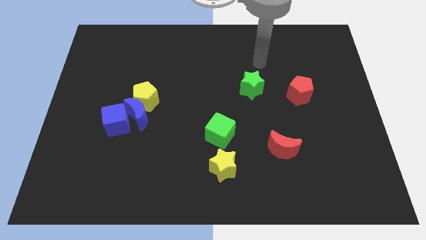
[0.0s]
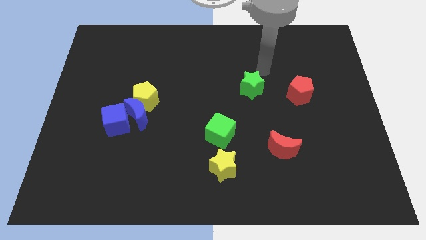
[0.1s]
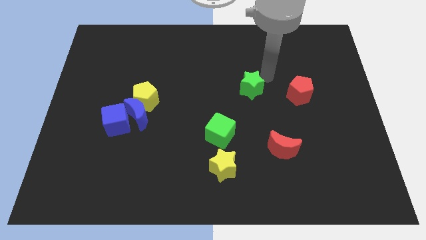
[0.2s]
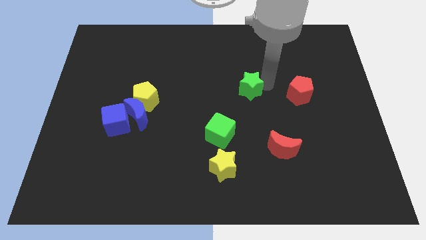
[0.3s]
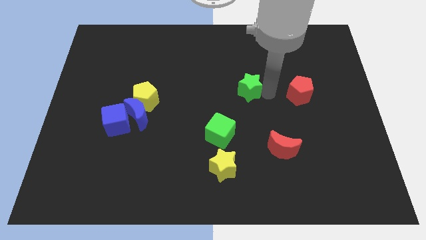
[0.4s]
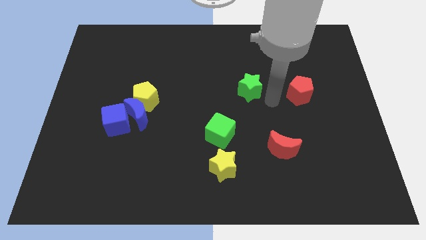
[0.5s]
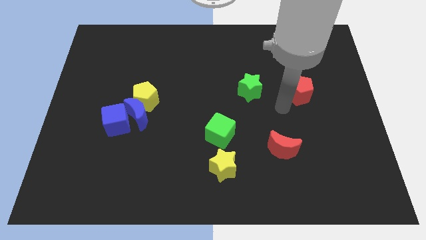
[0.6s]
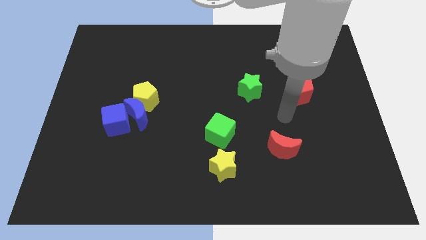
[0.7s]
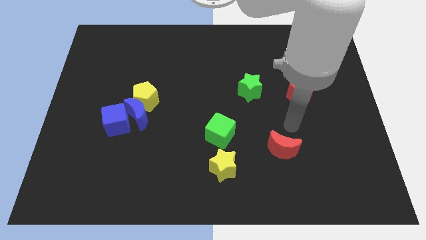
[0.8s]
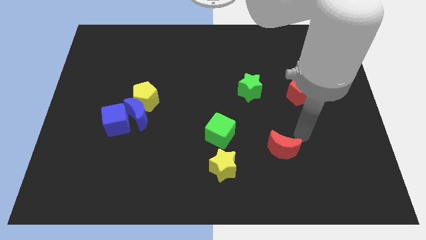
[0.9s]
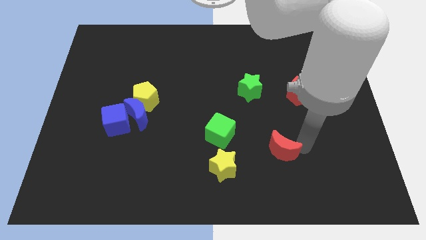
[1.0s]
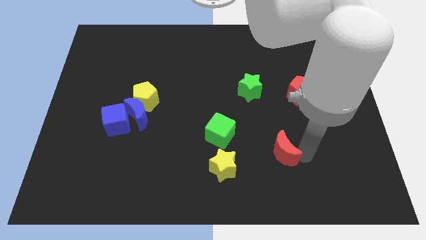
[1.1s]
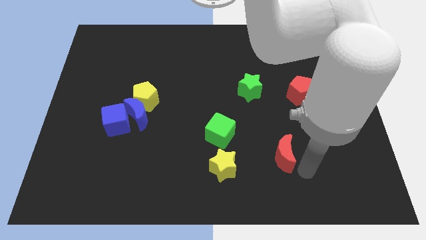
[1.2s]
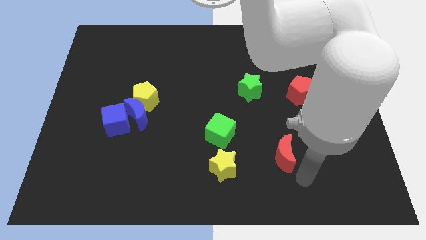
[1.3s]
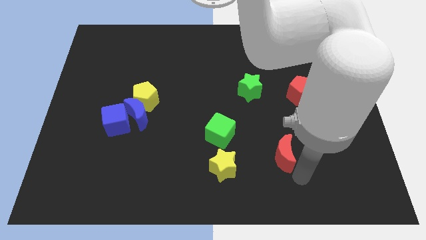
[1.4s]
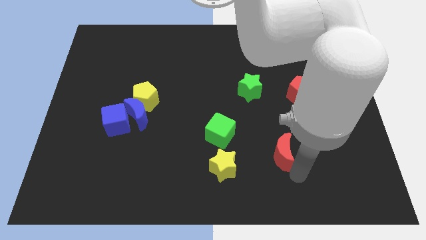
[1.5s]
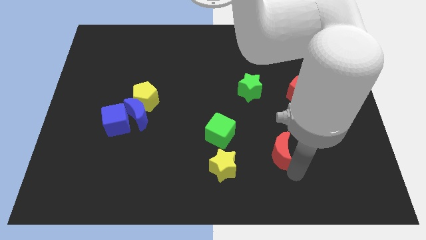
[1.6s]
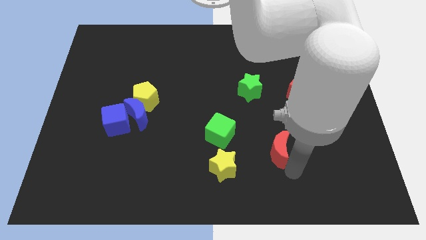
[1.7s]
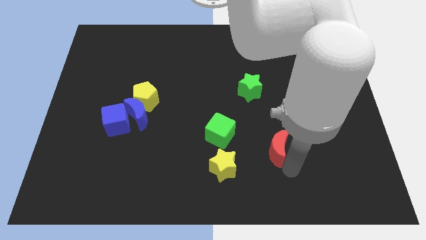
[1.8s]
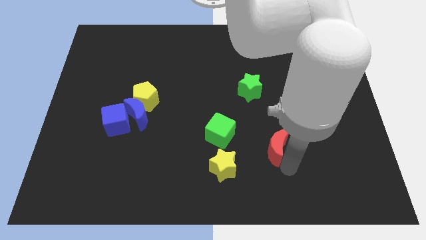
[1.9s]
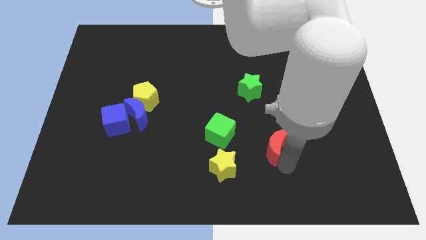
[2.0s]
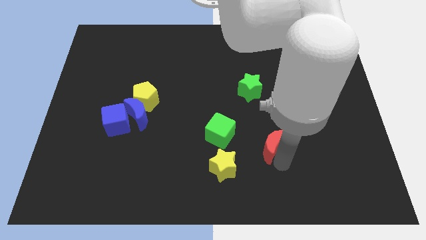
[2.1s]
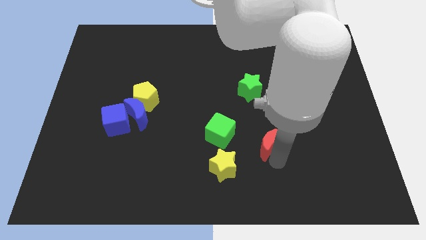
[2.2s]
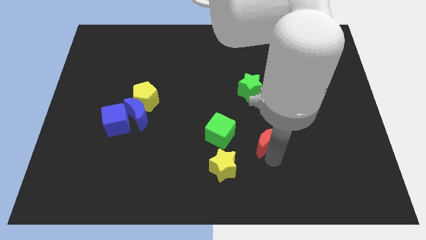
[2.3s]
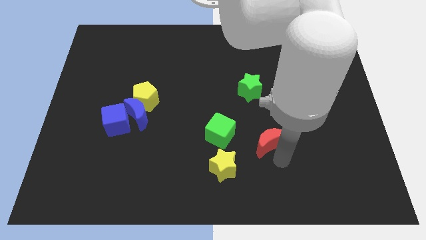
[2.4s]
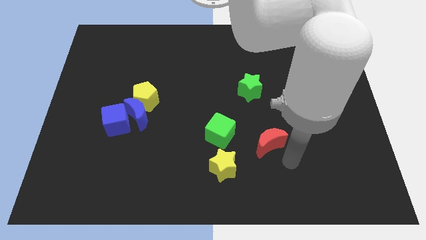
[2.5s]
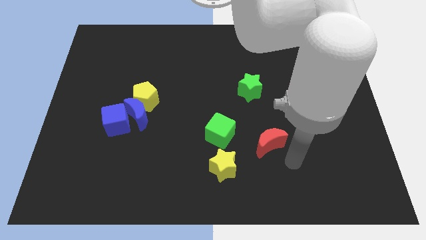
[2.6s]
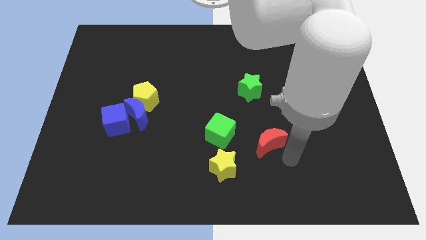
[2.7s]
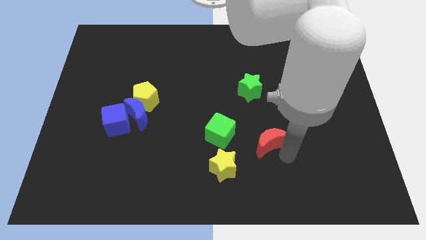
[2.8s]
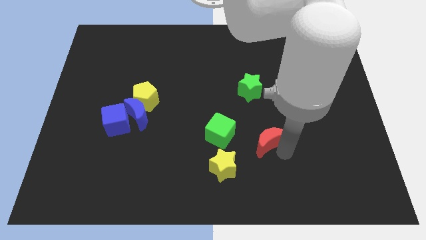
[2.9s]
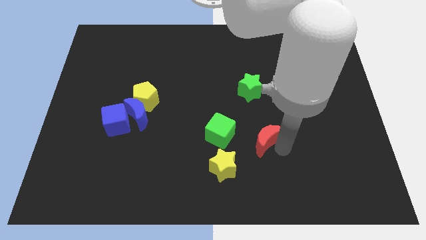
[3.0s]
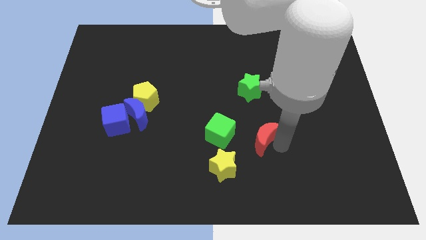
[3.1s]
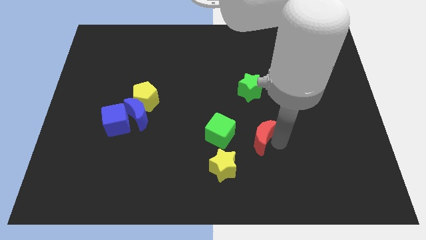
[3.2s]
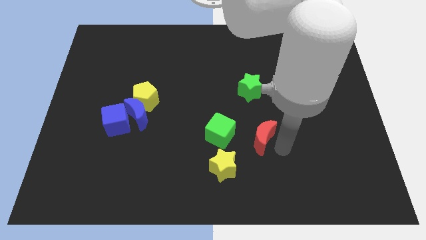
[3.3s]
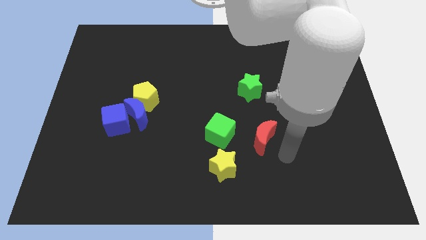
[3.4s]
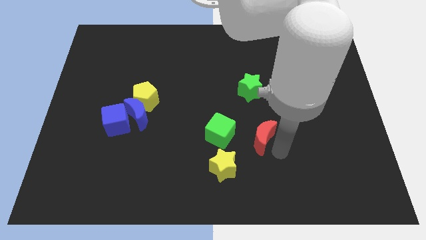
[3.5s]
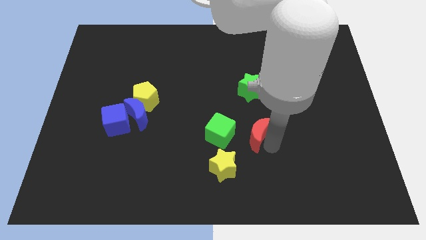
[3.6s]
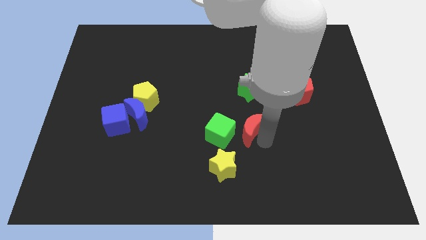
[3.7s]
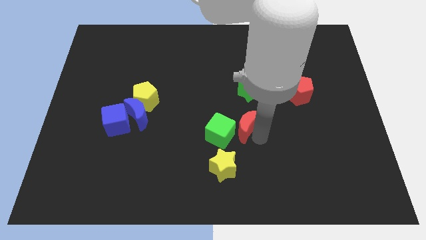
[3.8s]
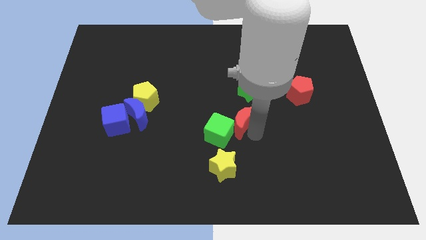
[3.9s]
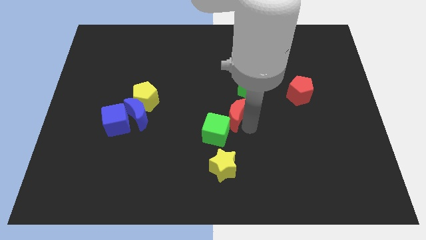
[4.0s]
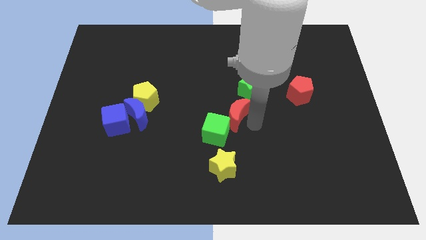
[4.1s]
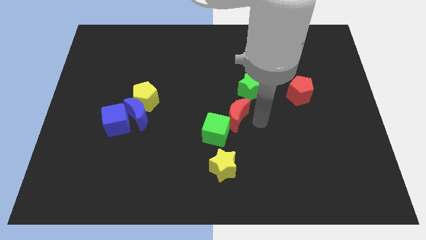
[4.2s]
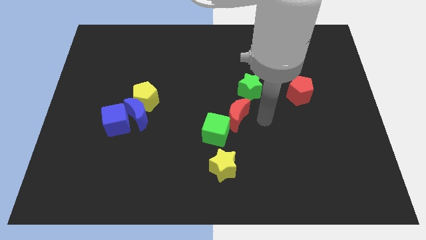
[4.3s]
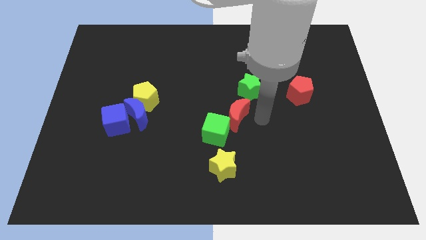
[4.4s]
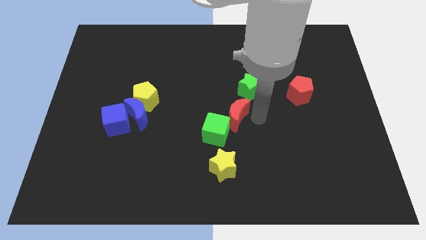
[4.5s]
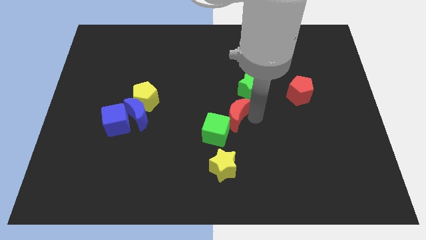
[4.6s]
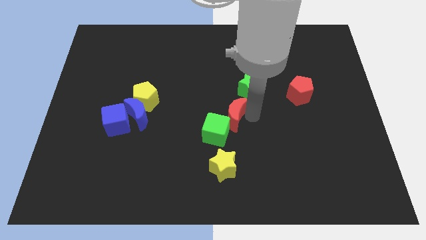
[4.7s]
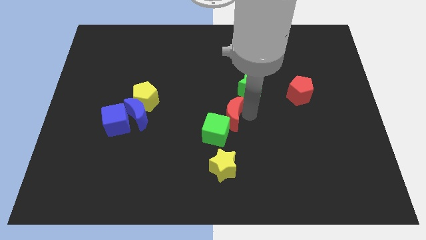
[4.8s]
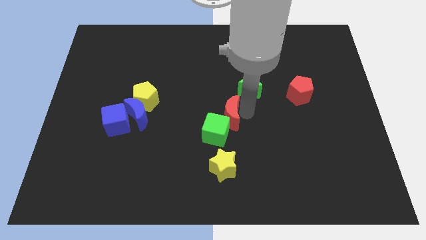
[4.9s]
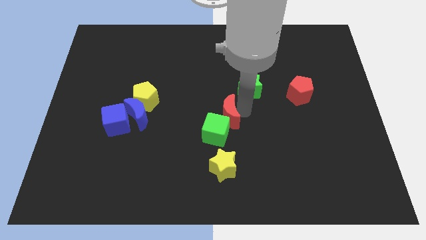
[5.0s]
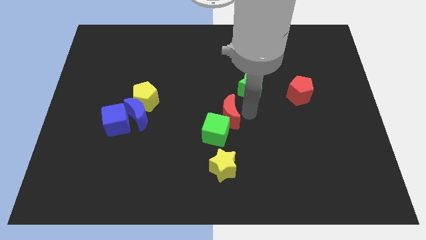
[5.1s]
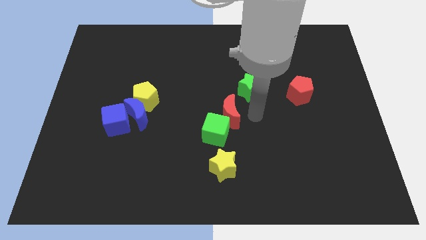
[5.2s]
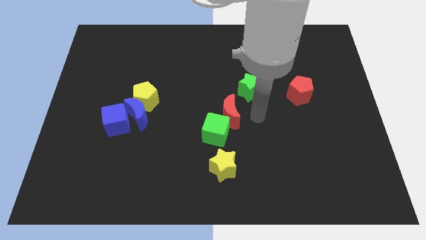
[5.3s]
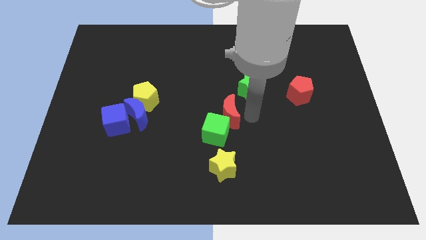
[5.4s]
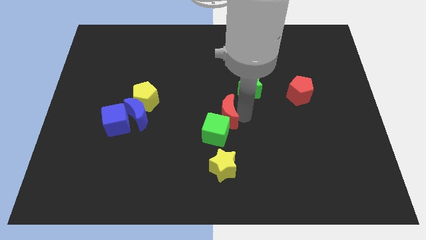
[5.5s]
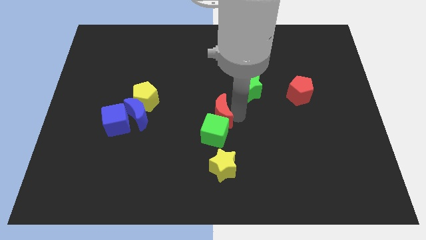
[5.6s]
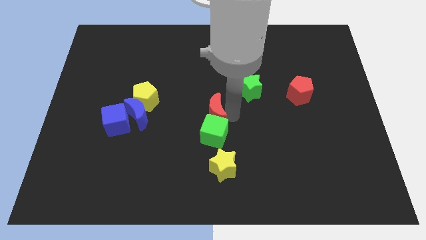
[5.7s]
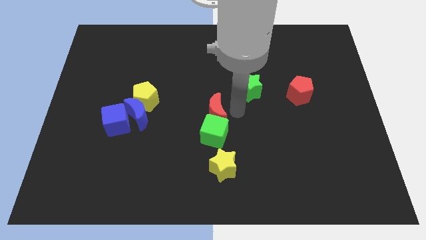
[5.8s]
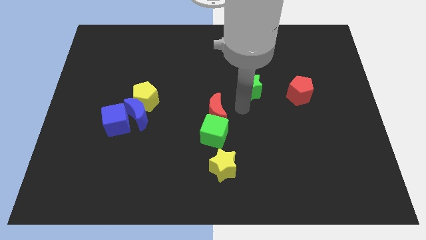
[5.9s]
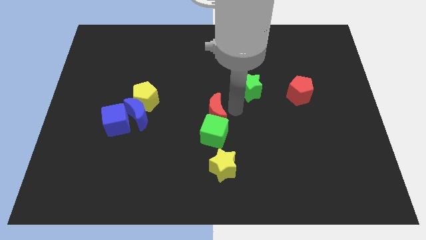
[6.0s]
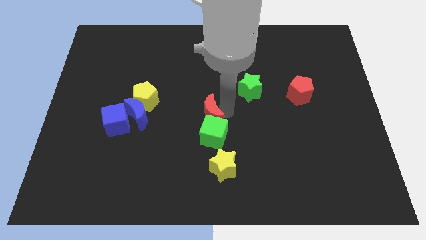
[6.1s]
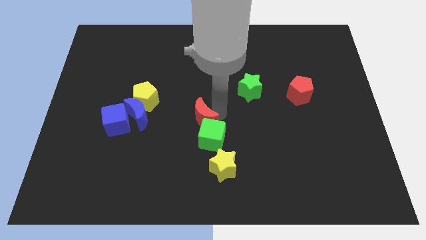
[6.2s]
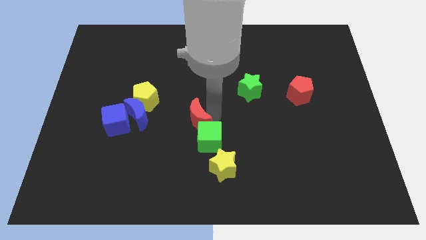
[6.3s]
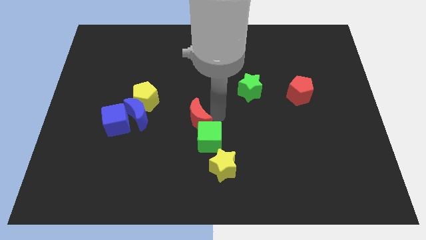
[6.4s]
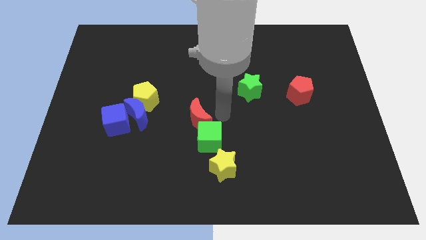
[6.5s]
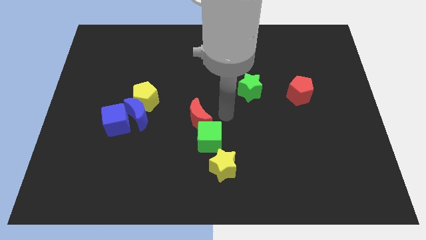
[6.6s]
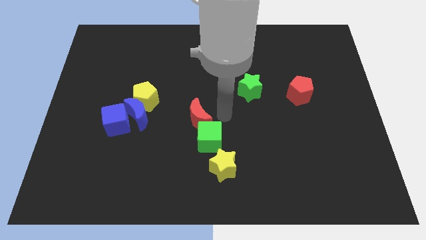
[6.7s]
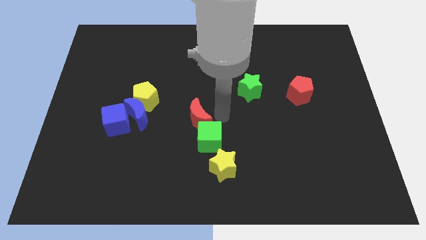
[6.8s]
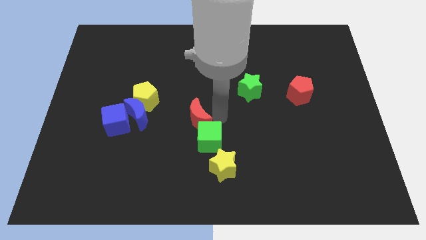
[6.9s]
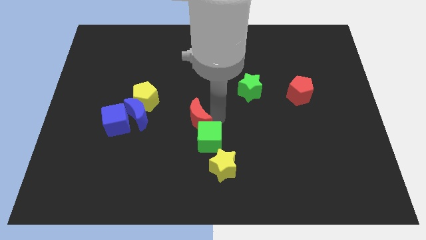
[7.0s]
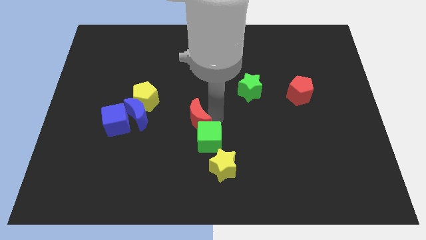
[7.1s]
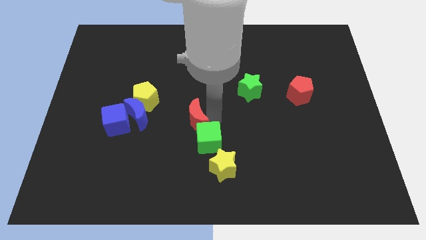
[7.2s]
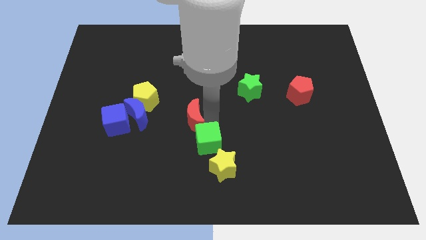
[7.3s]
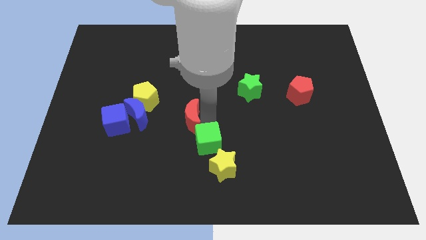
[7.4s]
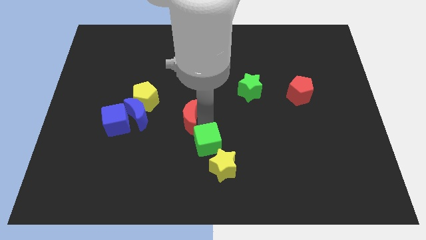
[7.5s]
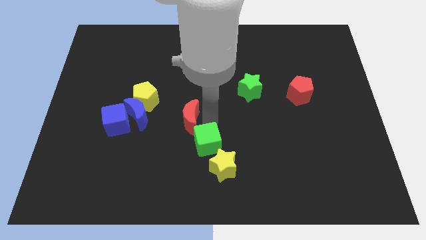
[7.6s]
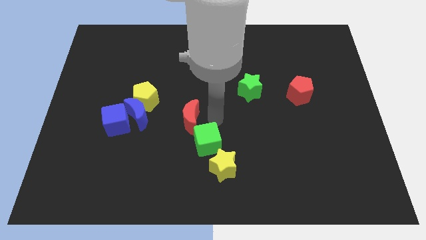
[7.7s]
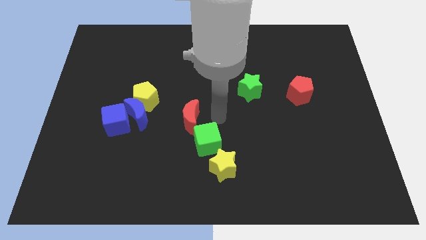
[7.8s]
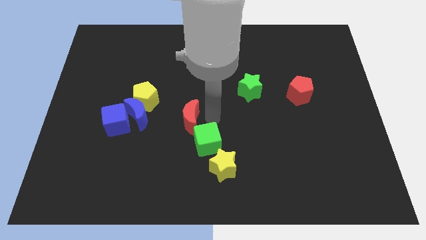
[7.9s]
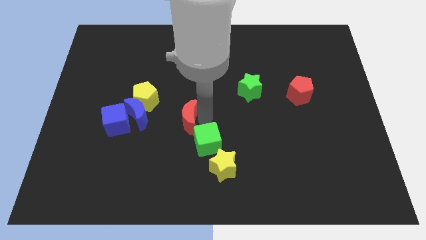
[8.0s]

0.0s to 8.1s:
put the red moon right of the blue cube
